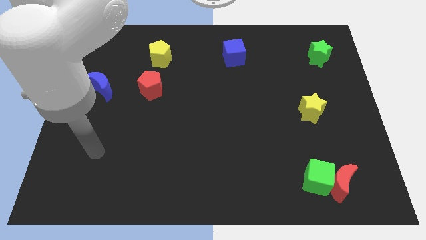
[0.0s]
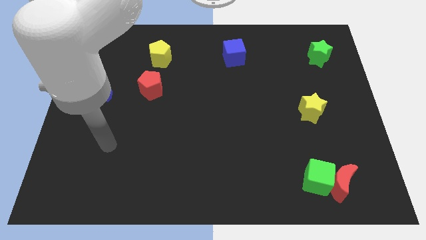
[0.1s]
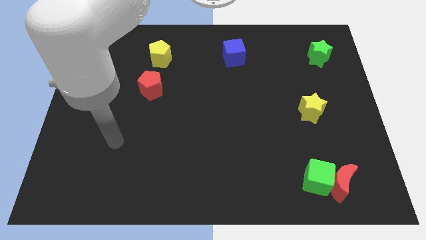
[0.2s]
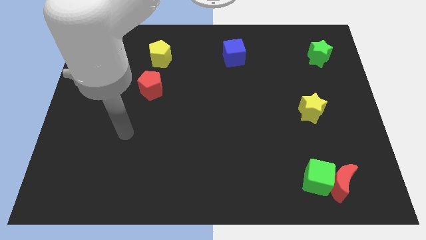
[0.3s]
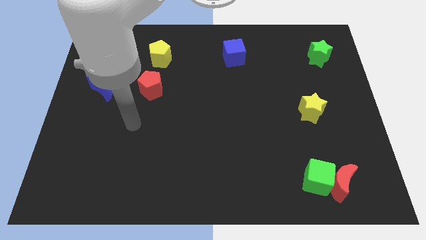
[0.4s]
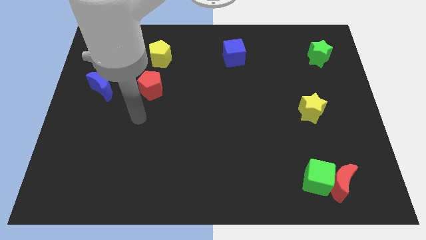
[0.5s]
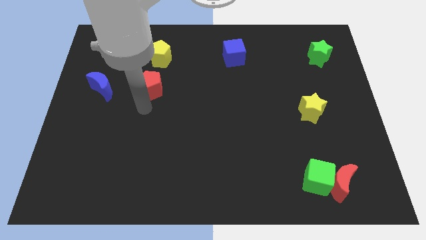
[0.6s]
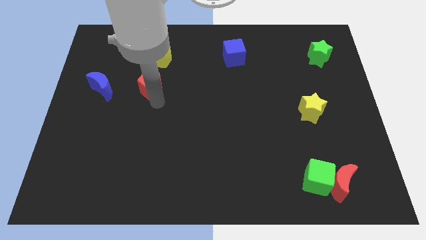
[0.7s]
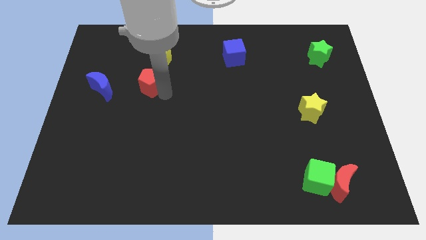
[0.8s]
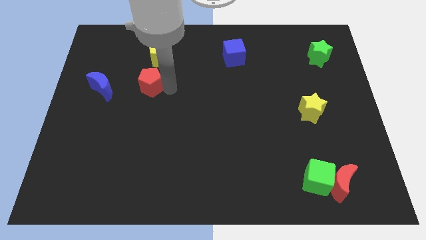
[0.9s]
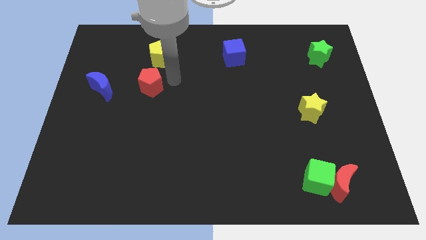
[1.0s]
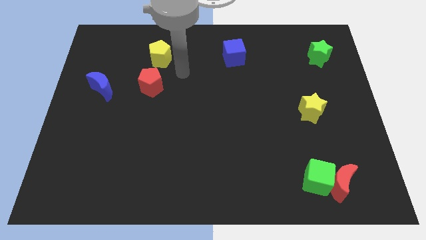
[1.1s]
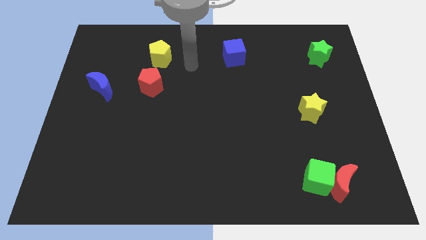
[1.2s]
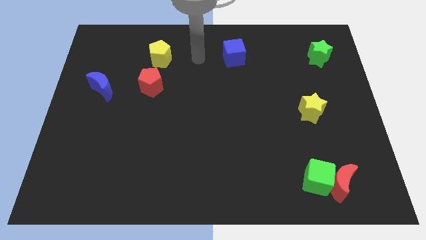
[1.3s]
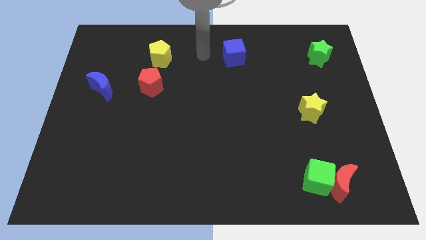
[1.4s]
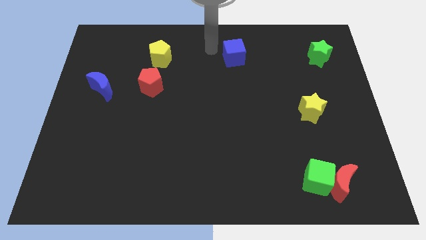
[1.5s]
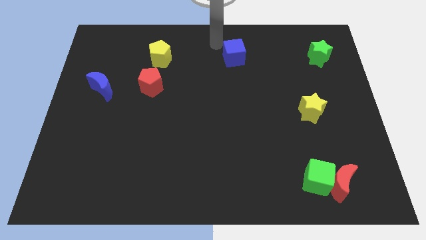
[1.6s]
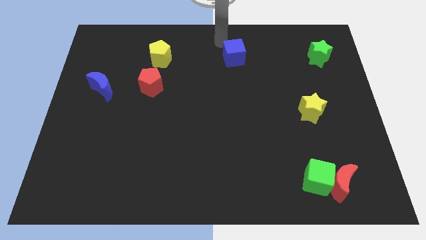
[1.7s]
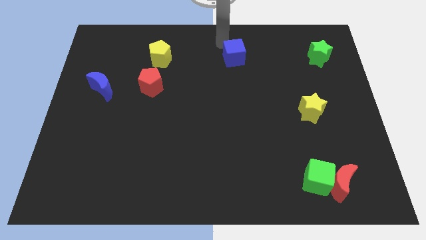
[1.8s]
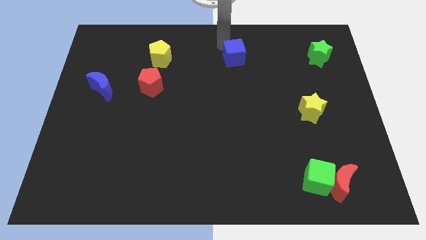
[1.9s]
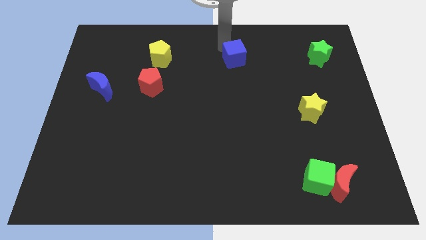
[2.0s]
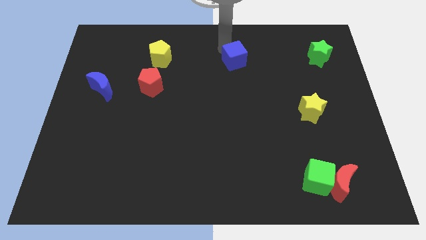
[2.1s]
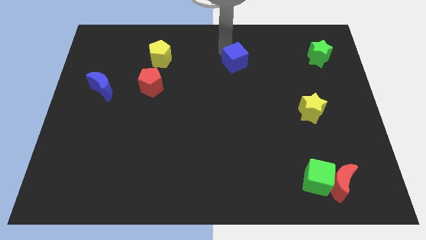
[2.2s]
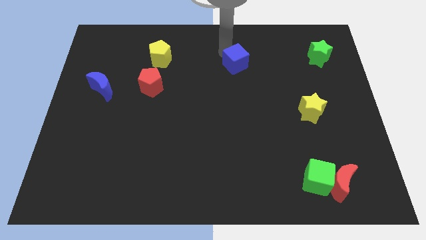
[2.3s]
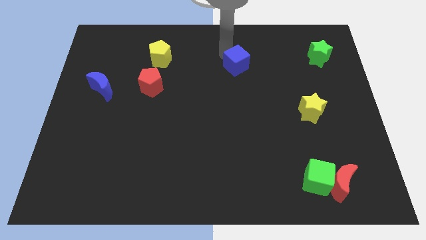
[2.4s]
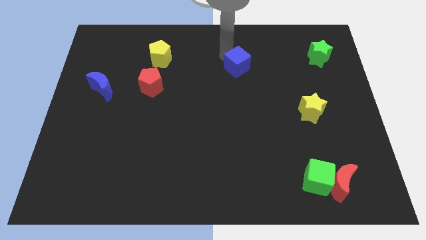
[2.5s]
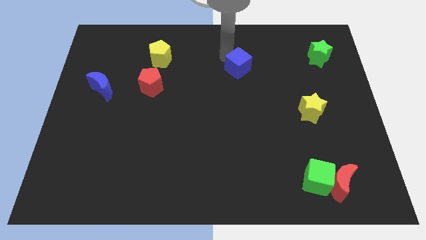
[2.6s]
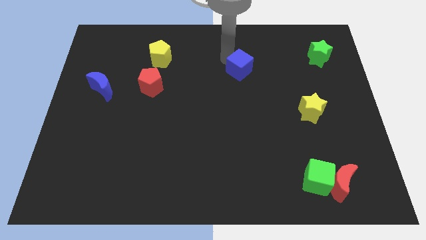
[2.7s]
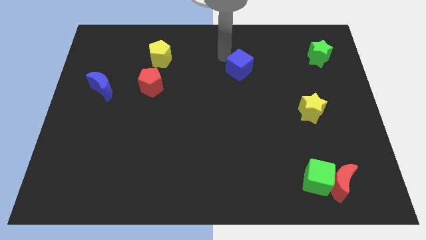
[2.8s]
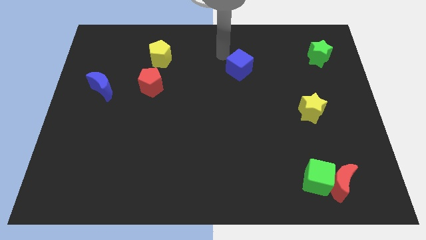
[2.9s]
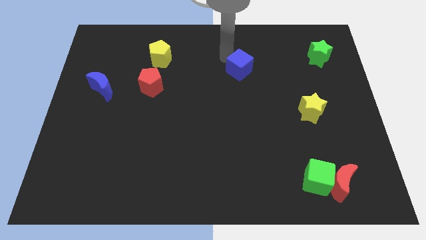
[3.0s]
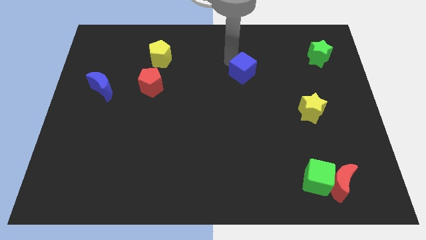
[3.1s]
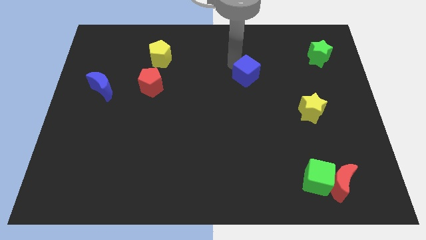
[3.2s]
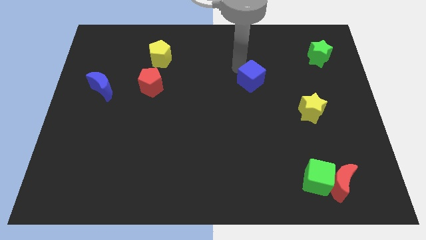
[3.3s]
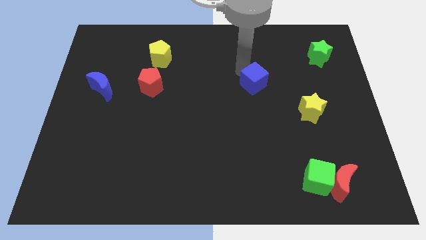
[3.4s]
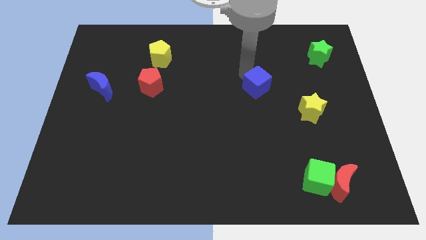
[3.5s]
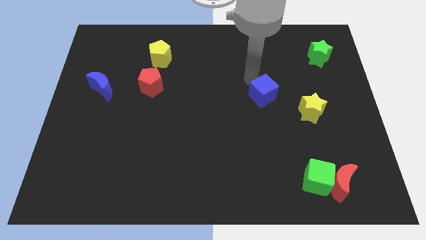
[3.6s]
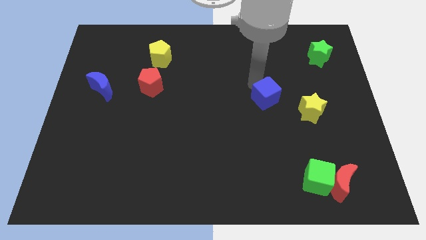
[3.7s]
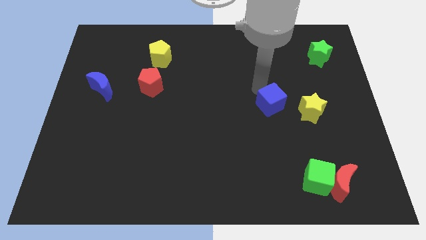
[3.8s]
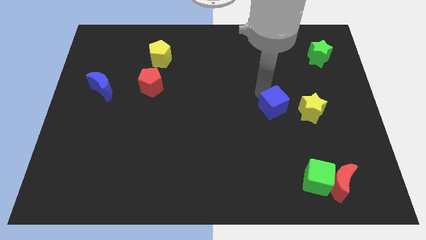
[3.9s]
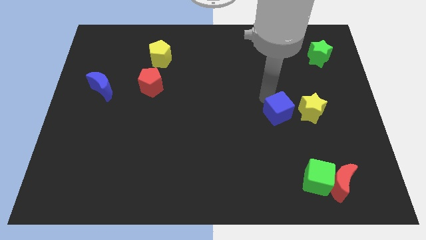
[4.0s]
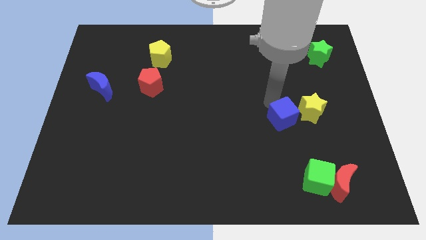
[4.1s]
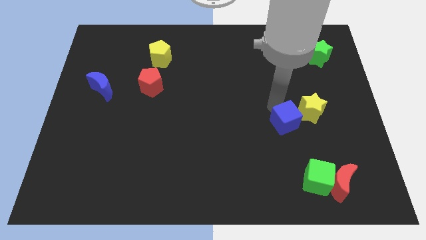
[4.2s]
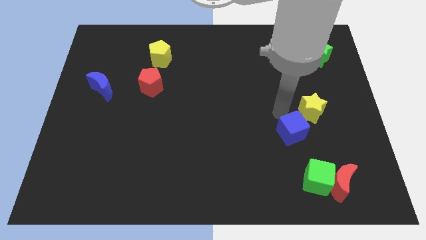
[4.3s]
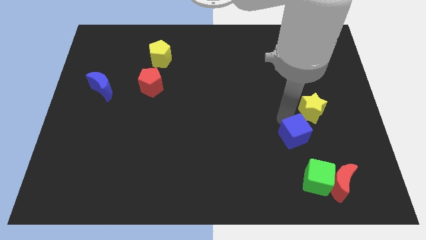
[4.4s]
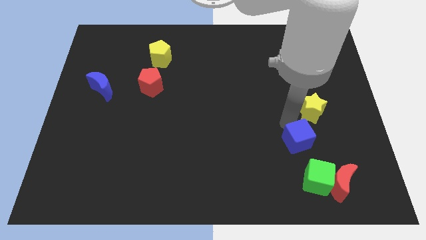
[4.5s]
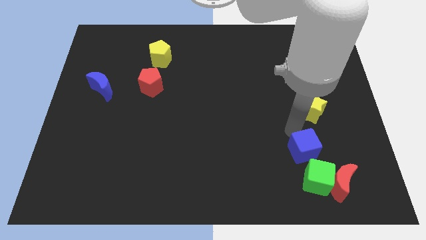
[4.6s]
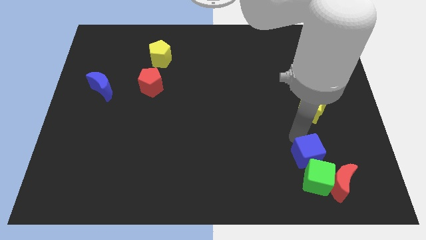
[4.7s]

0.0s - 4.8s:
put the blue cube close to the green cube

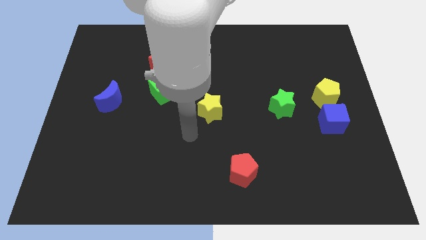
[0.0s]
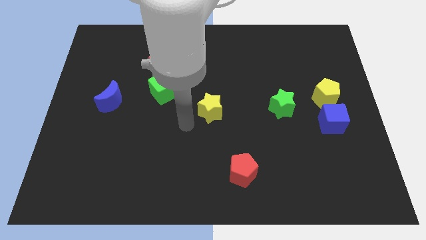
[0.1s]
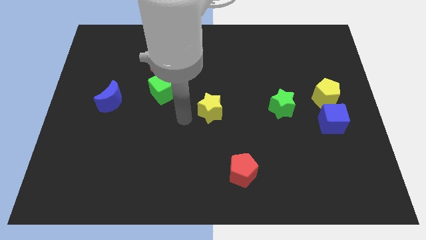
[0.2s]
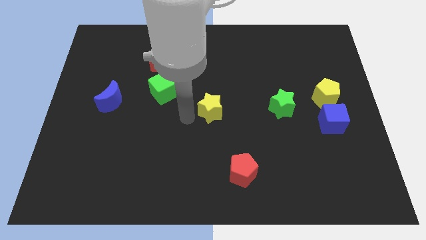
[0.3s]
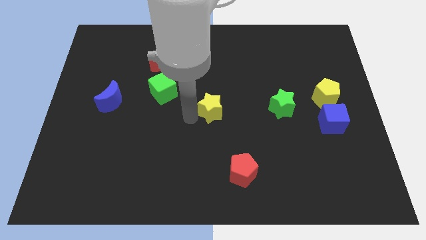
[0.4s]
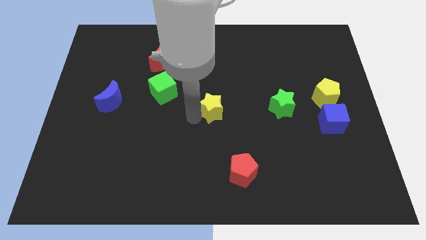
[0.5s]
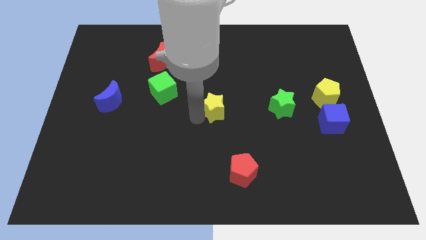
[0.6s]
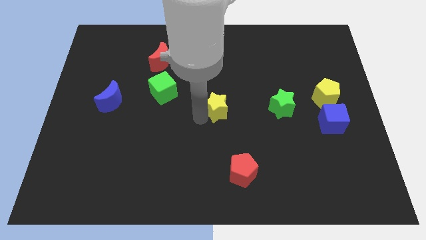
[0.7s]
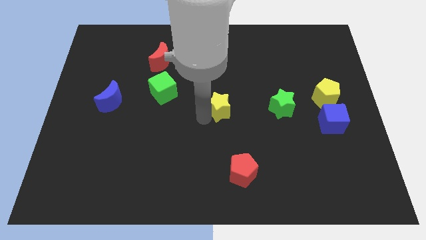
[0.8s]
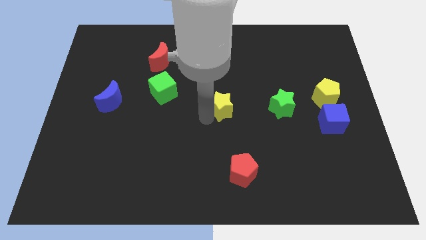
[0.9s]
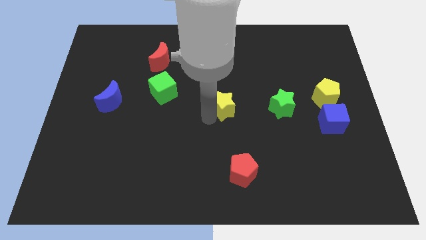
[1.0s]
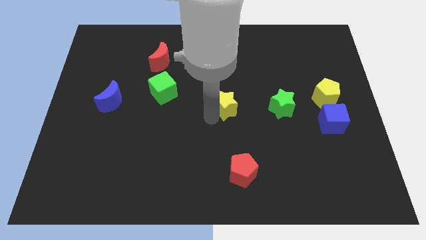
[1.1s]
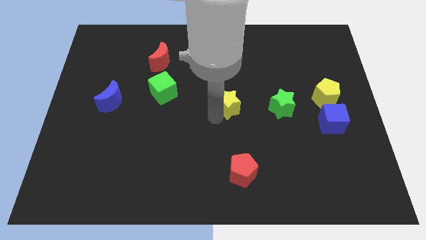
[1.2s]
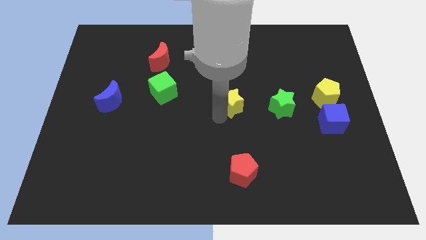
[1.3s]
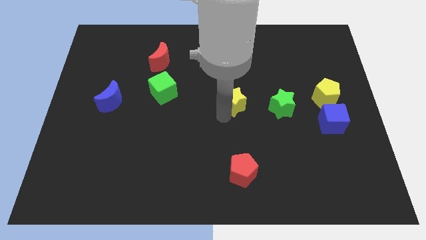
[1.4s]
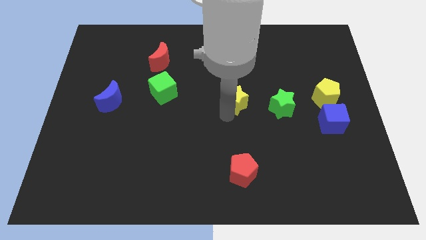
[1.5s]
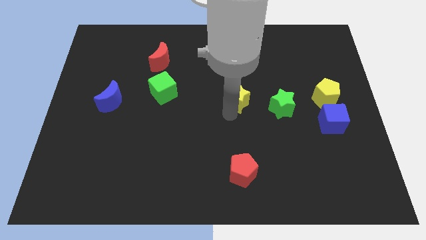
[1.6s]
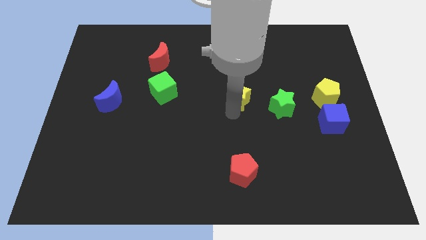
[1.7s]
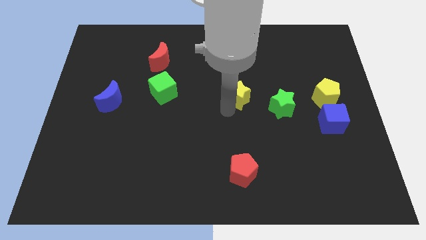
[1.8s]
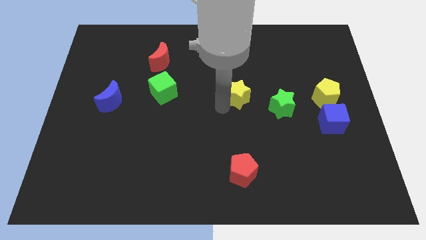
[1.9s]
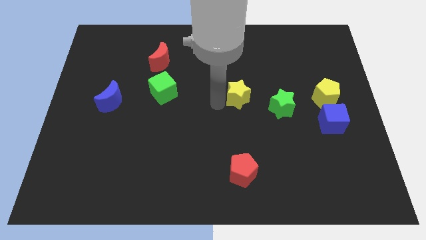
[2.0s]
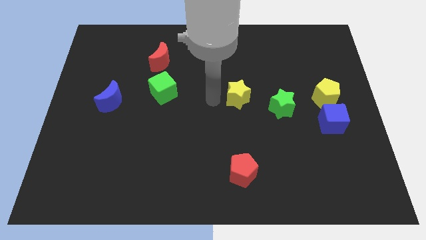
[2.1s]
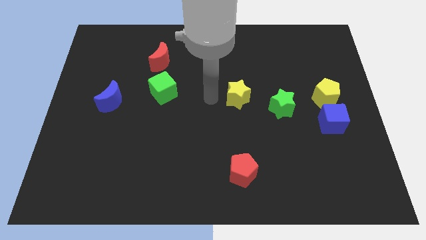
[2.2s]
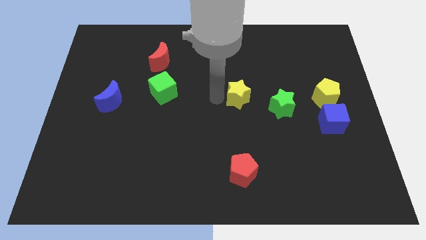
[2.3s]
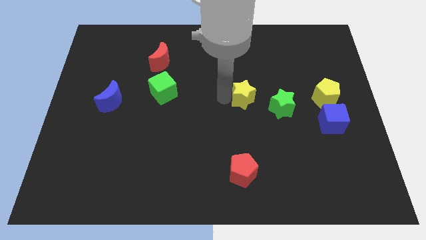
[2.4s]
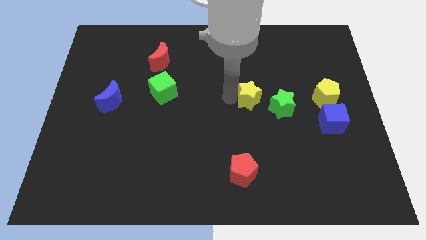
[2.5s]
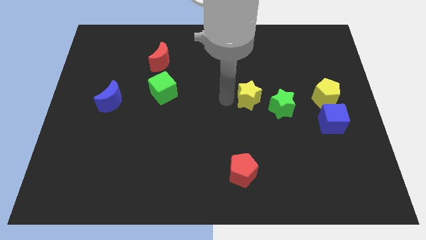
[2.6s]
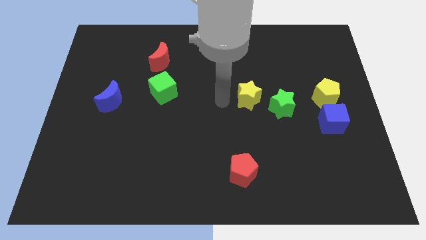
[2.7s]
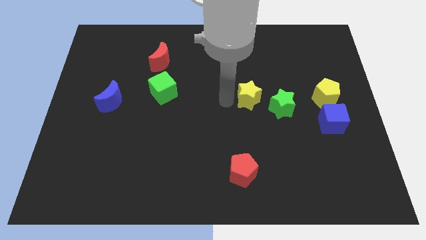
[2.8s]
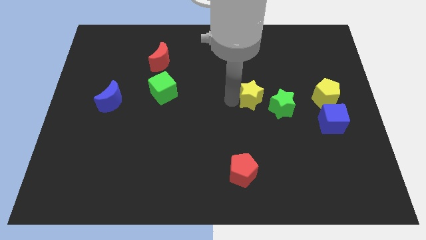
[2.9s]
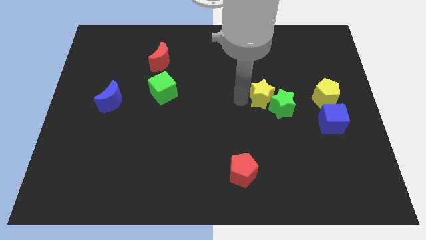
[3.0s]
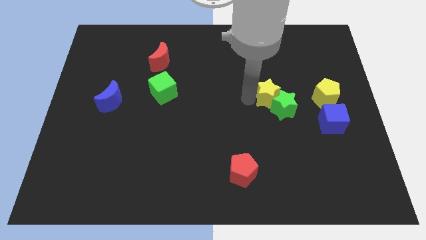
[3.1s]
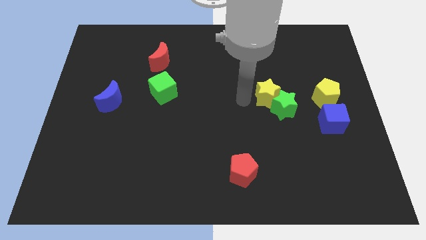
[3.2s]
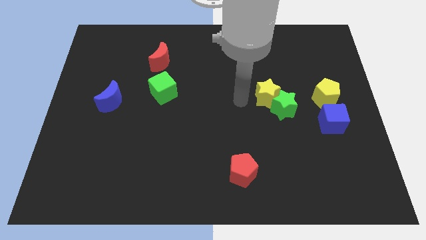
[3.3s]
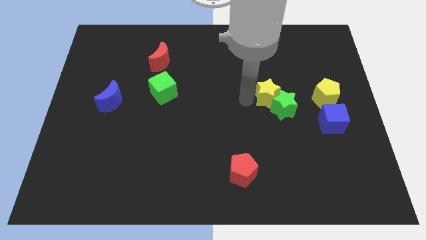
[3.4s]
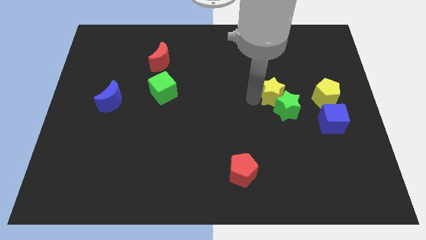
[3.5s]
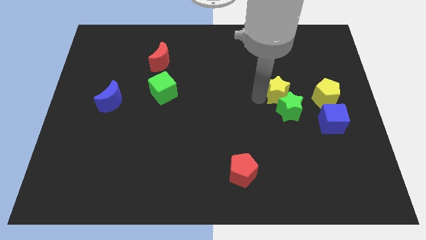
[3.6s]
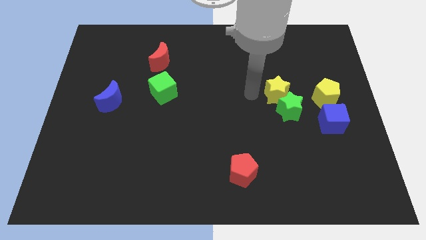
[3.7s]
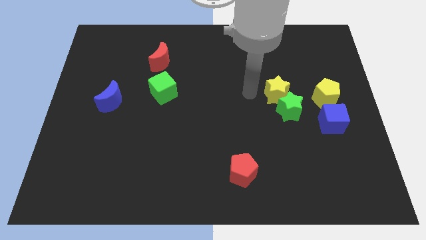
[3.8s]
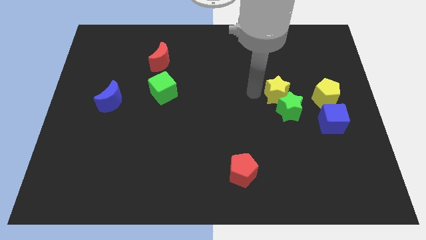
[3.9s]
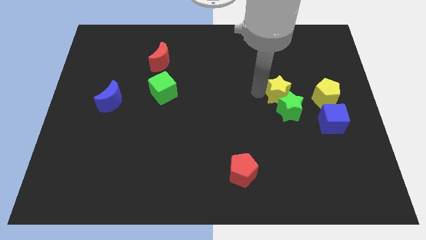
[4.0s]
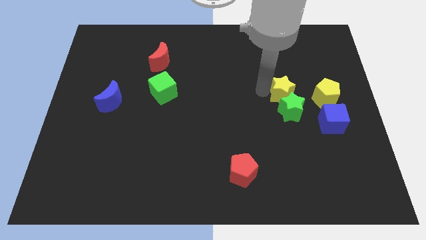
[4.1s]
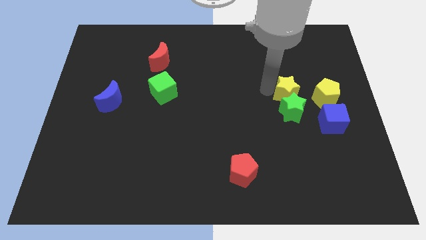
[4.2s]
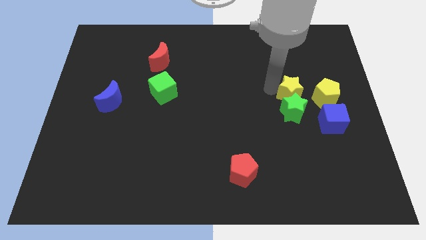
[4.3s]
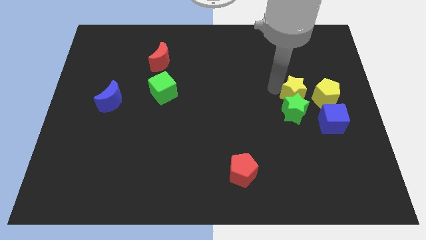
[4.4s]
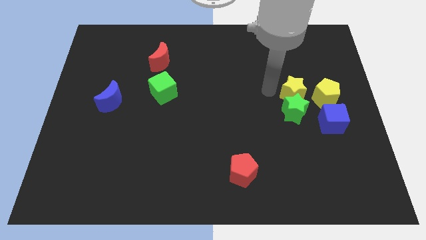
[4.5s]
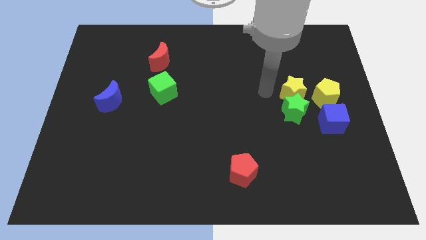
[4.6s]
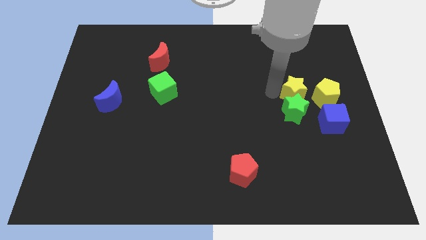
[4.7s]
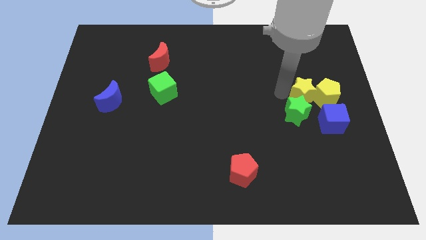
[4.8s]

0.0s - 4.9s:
put the yellow star to the yellow pentagon
